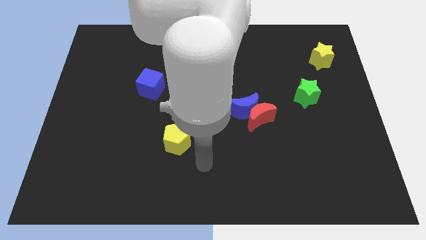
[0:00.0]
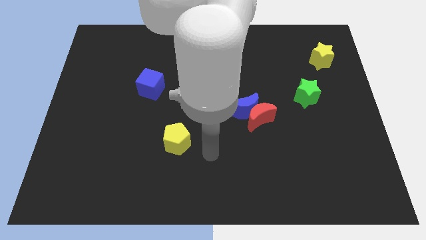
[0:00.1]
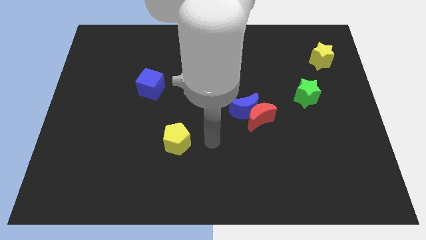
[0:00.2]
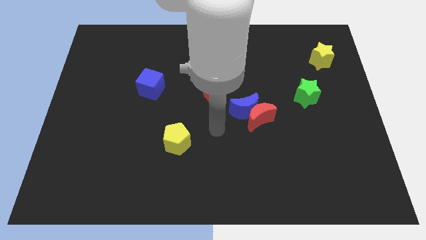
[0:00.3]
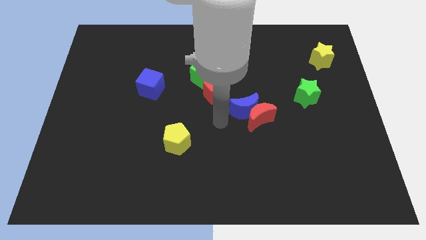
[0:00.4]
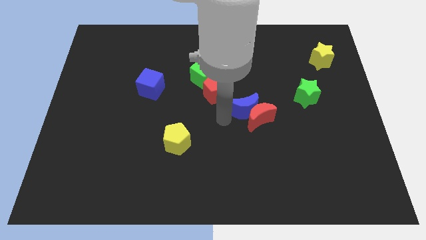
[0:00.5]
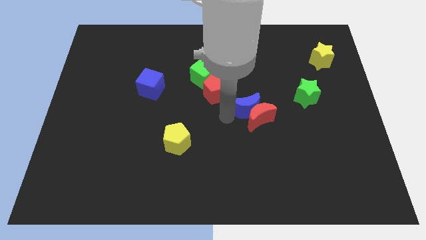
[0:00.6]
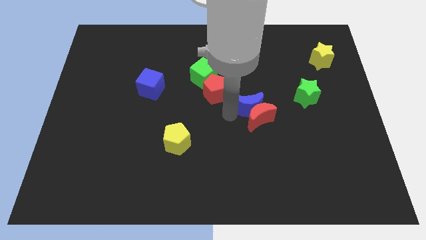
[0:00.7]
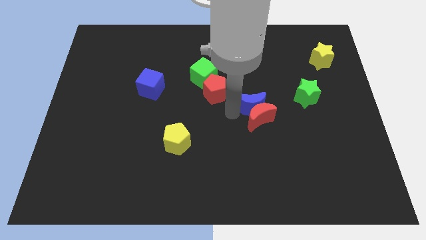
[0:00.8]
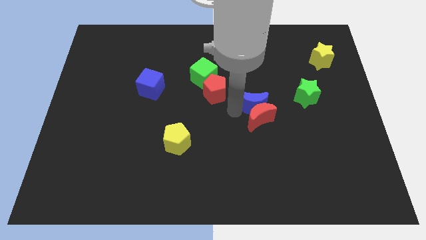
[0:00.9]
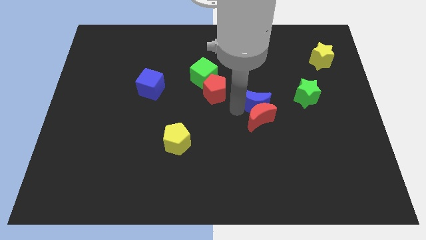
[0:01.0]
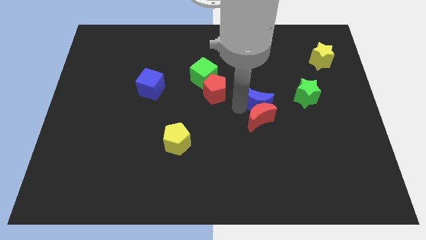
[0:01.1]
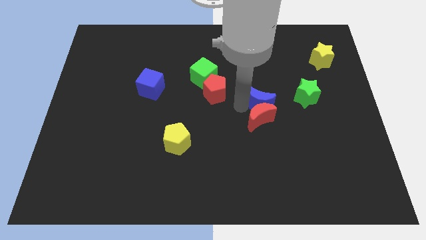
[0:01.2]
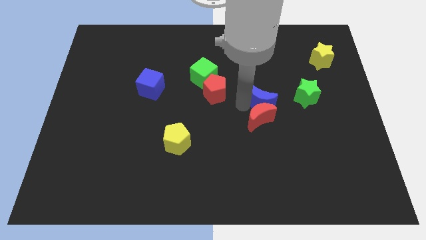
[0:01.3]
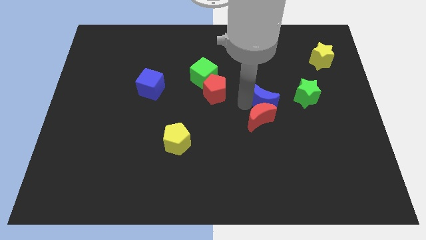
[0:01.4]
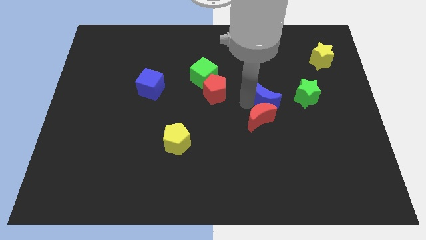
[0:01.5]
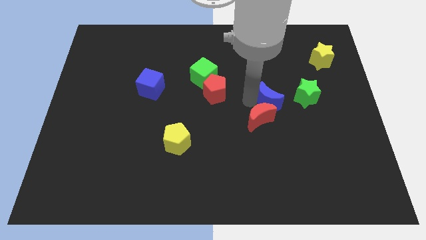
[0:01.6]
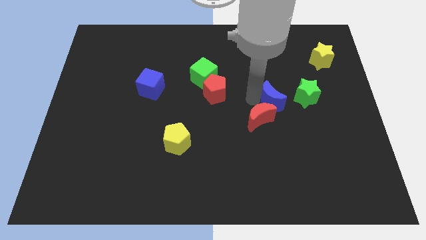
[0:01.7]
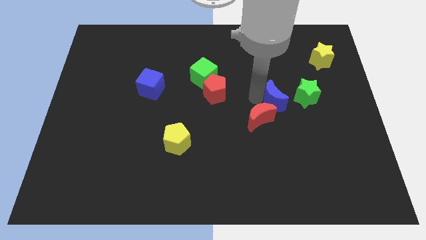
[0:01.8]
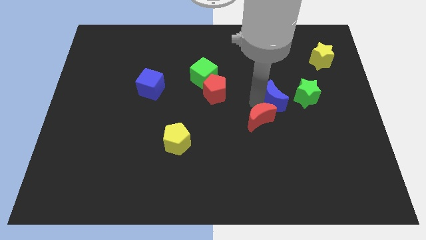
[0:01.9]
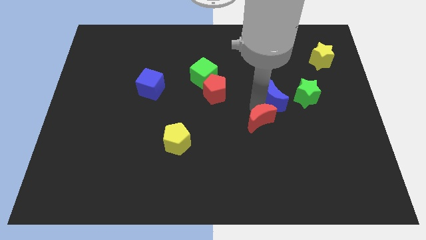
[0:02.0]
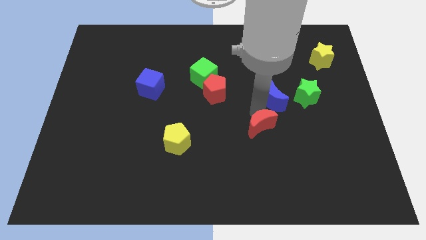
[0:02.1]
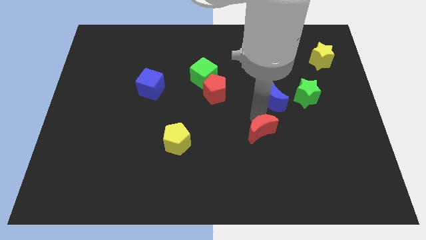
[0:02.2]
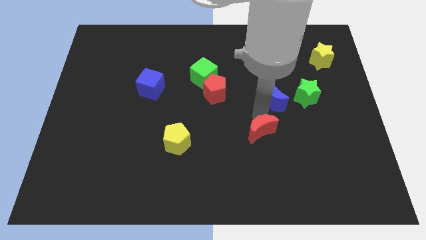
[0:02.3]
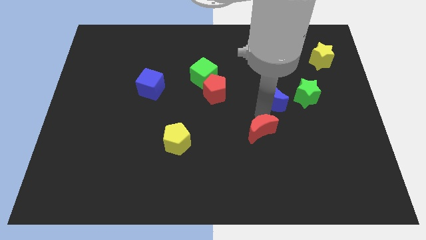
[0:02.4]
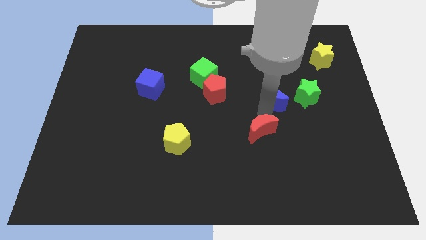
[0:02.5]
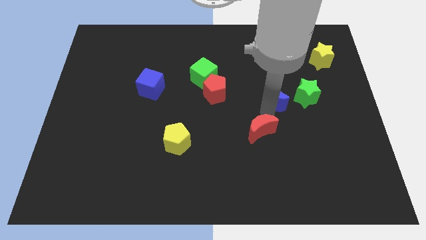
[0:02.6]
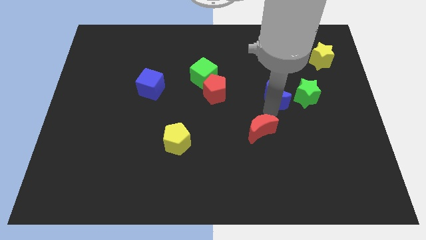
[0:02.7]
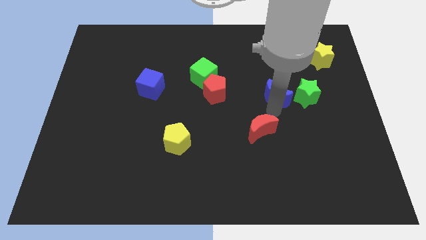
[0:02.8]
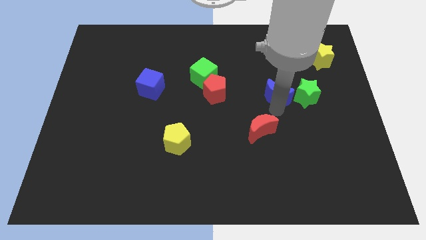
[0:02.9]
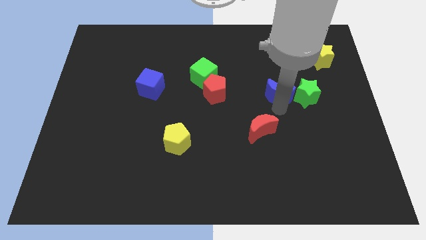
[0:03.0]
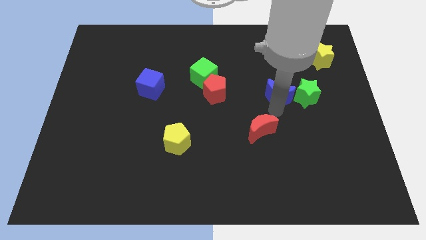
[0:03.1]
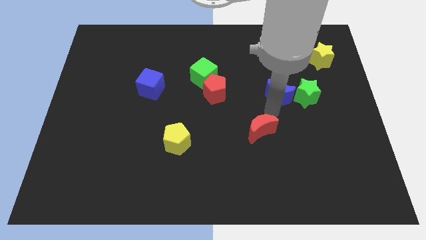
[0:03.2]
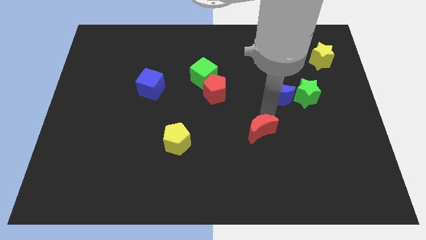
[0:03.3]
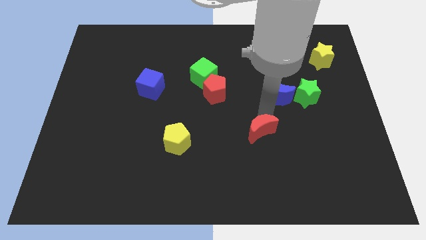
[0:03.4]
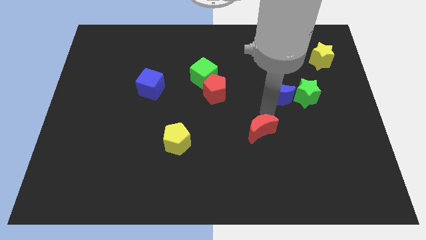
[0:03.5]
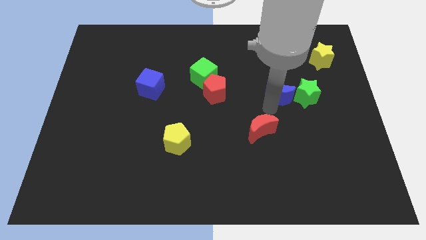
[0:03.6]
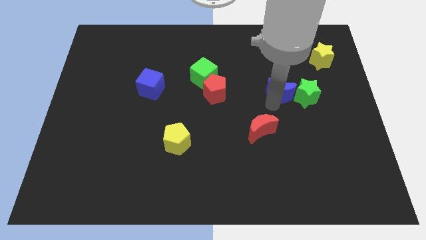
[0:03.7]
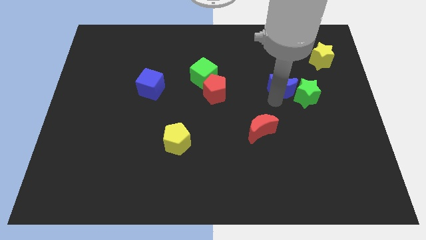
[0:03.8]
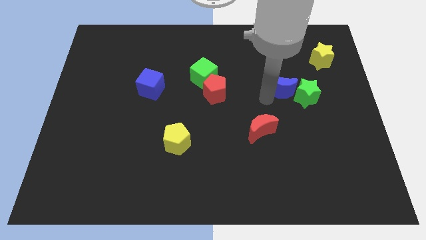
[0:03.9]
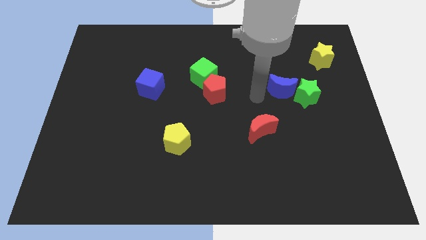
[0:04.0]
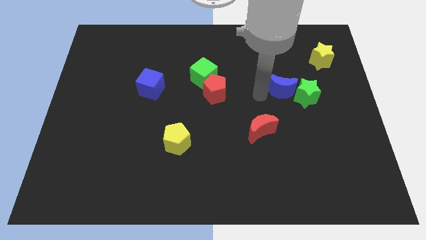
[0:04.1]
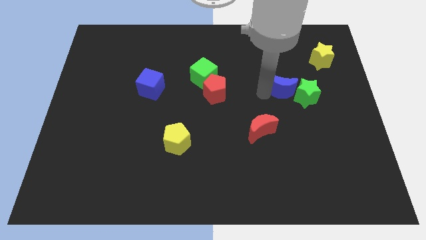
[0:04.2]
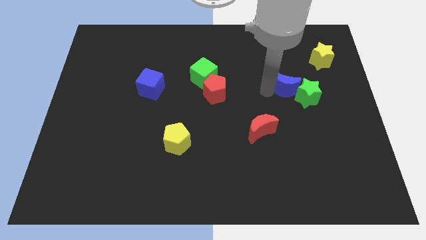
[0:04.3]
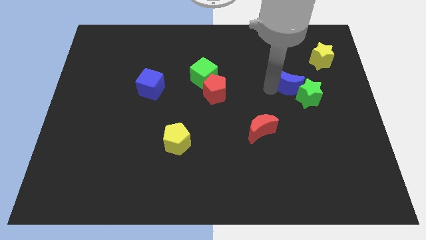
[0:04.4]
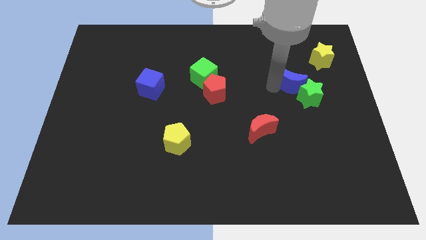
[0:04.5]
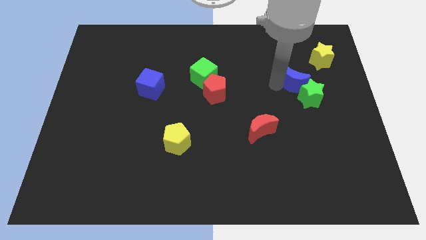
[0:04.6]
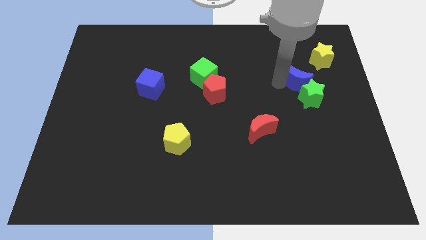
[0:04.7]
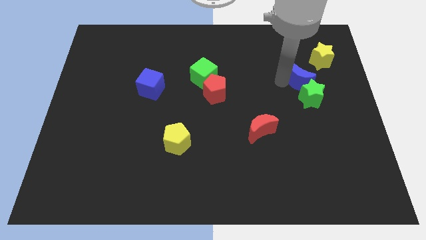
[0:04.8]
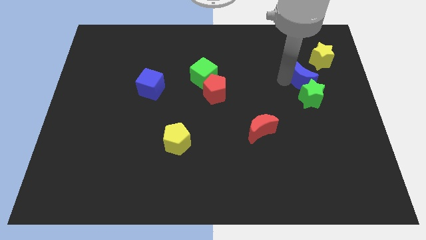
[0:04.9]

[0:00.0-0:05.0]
put the blue moon diagonally up and to the right of the green star

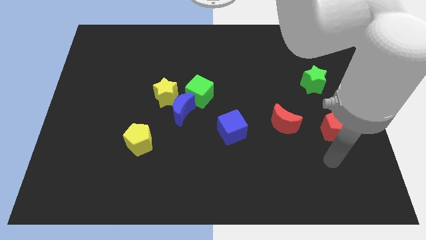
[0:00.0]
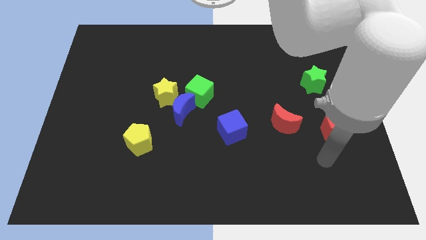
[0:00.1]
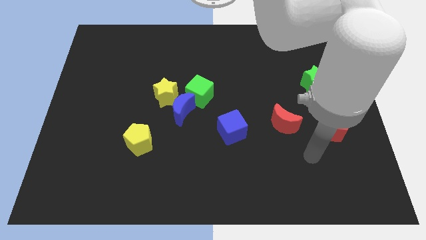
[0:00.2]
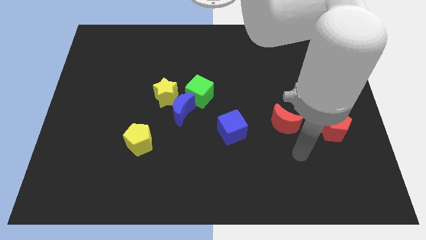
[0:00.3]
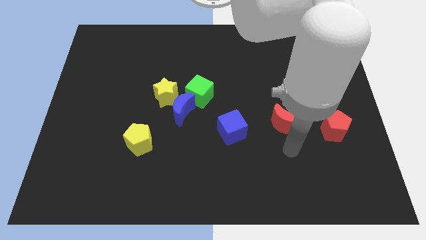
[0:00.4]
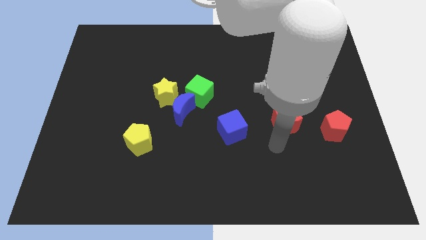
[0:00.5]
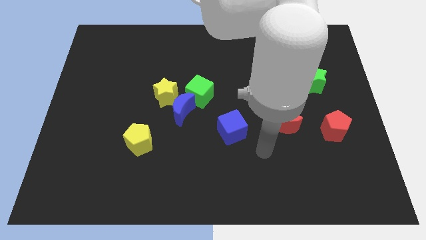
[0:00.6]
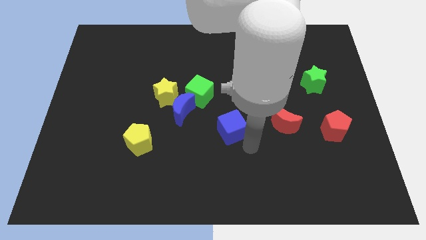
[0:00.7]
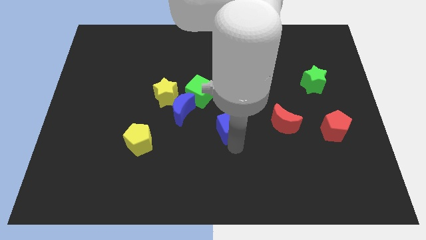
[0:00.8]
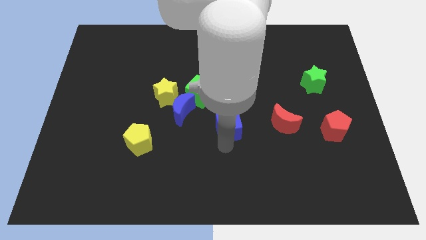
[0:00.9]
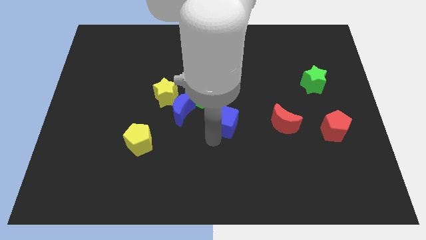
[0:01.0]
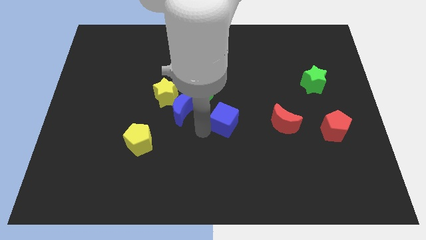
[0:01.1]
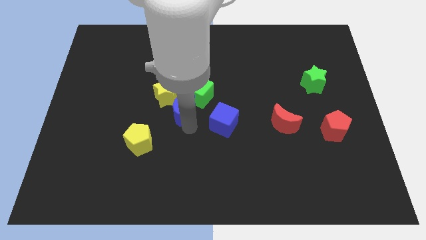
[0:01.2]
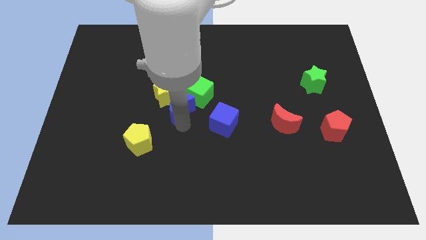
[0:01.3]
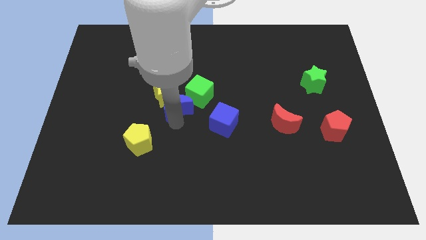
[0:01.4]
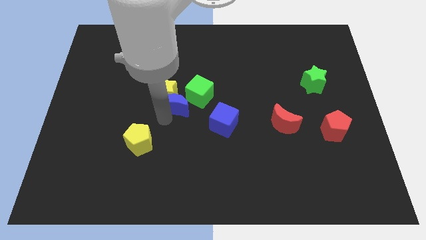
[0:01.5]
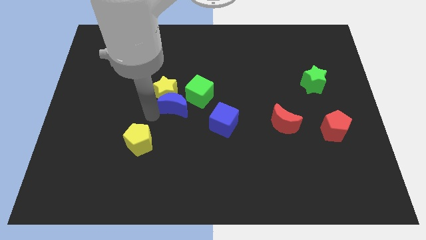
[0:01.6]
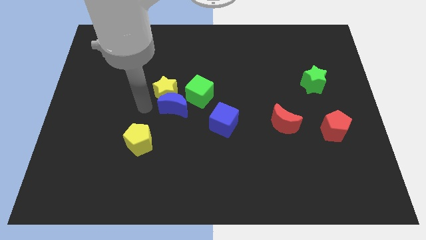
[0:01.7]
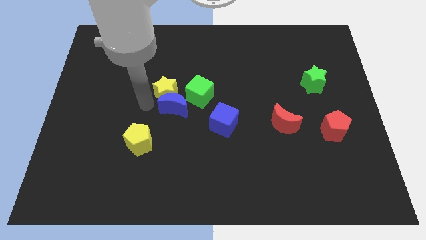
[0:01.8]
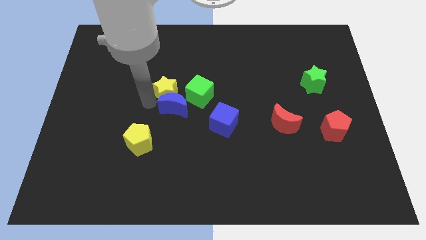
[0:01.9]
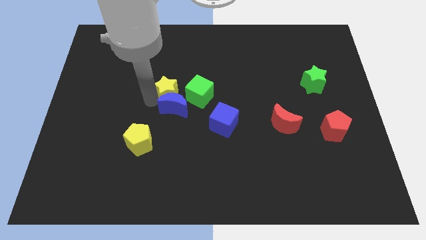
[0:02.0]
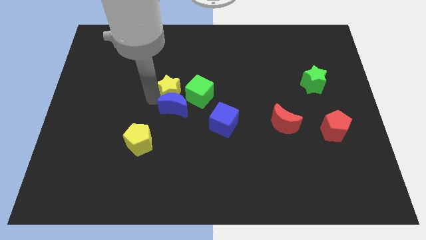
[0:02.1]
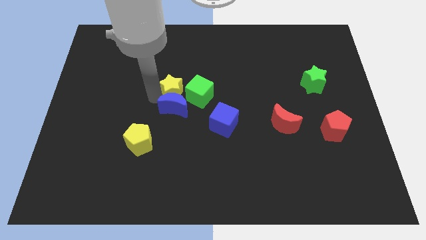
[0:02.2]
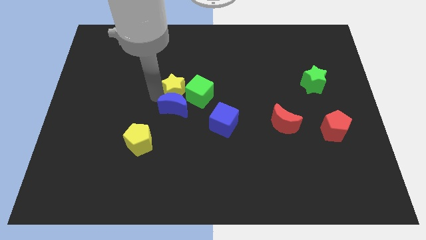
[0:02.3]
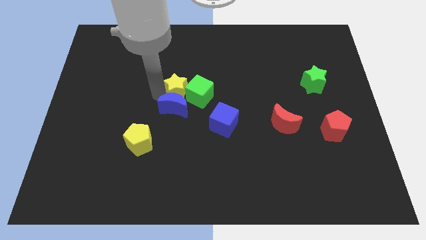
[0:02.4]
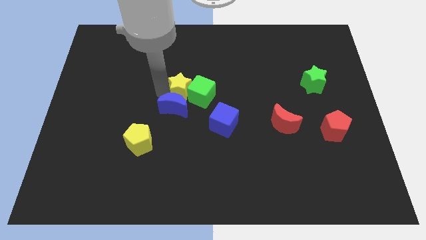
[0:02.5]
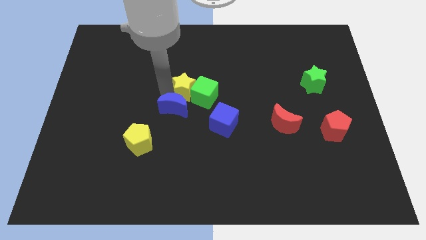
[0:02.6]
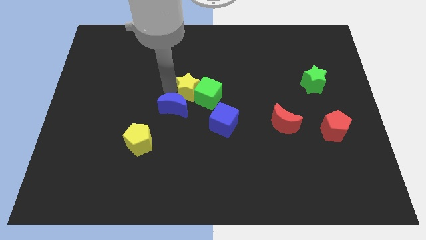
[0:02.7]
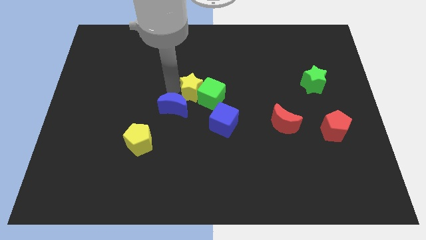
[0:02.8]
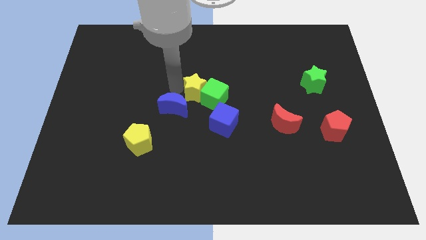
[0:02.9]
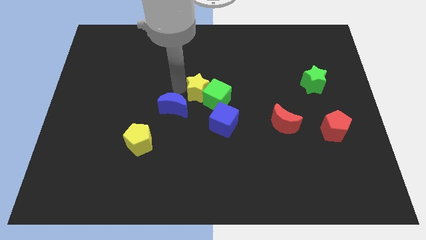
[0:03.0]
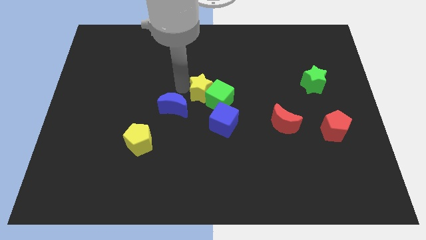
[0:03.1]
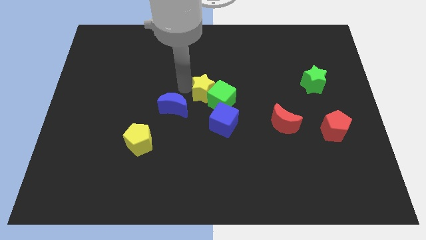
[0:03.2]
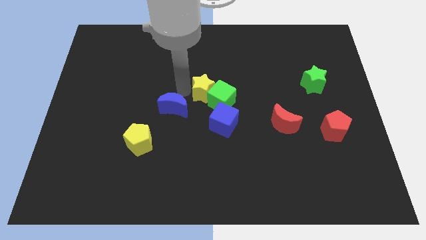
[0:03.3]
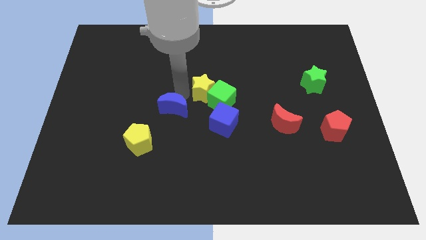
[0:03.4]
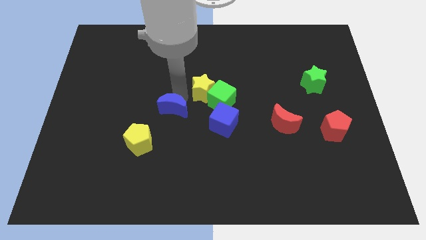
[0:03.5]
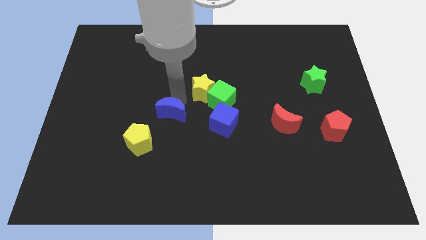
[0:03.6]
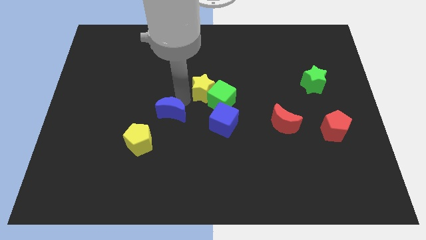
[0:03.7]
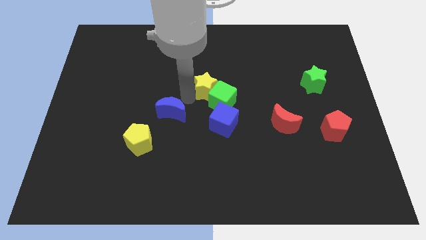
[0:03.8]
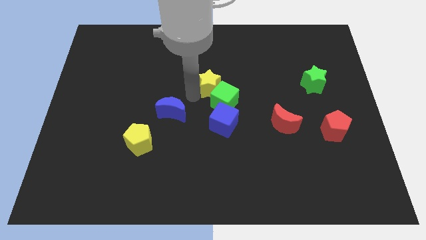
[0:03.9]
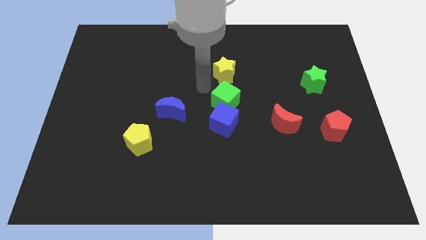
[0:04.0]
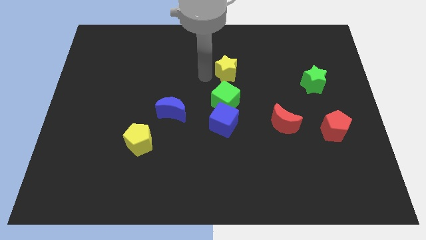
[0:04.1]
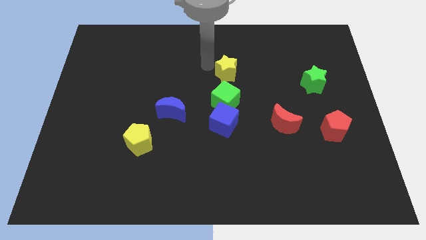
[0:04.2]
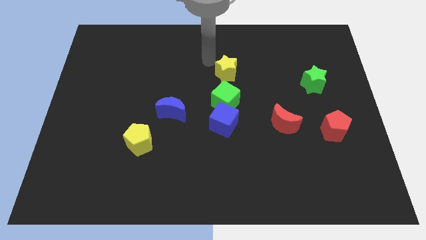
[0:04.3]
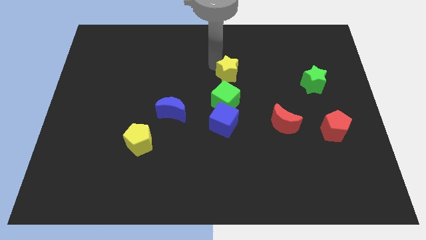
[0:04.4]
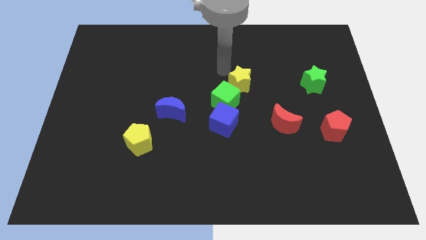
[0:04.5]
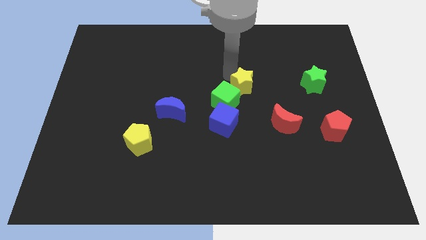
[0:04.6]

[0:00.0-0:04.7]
put the yellow star to the right of the green cube
